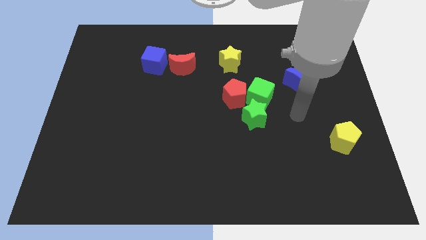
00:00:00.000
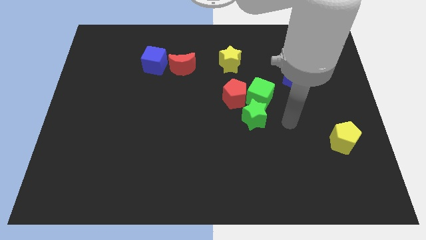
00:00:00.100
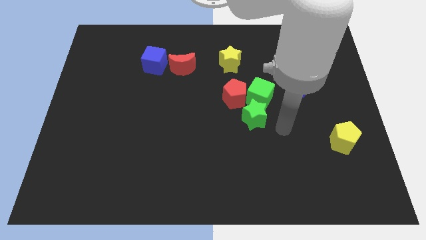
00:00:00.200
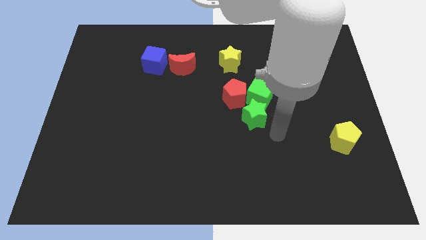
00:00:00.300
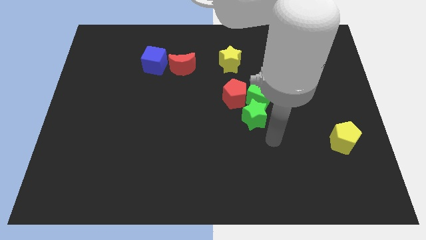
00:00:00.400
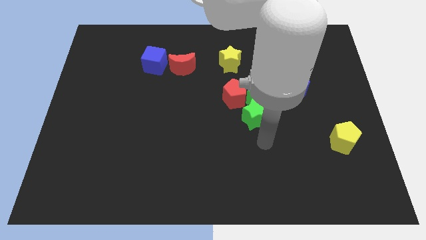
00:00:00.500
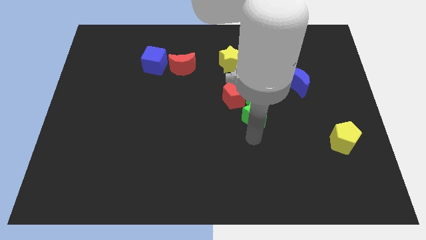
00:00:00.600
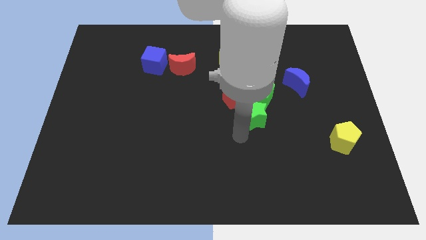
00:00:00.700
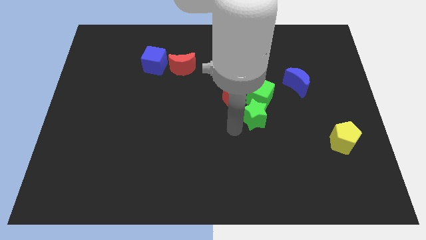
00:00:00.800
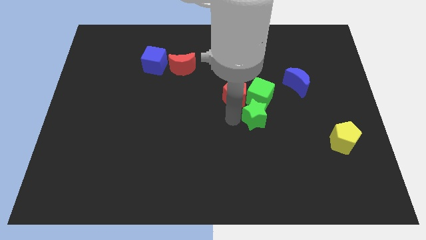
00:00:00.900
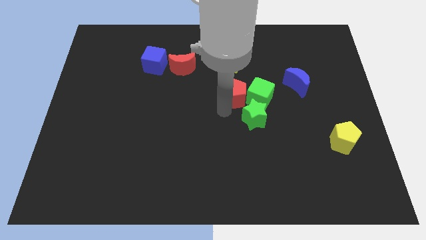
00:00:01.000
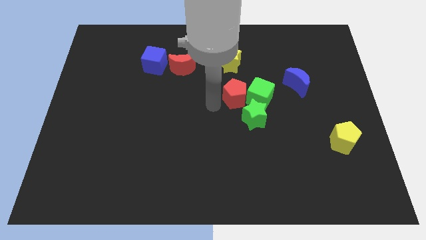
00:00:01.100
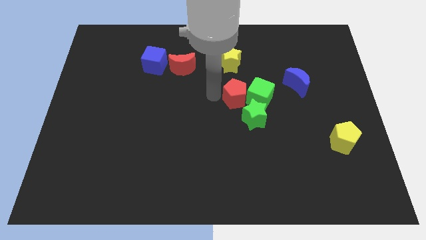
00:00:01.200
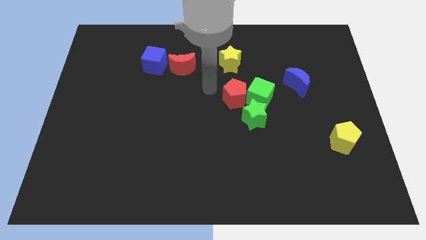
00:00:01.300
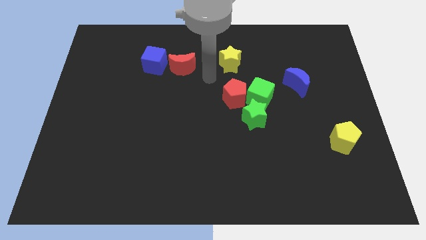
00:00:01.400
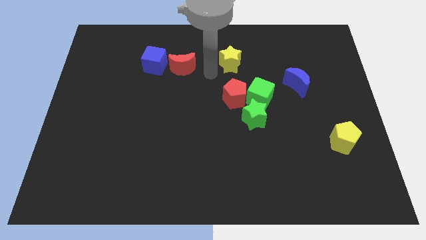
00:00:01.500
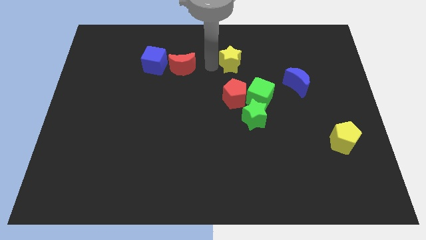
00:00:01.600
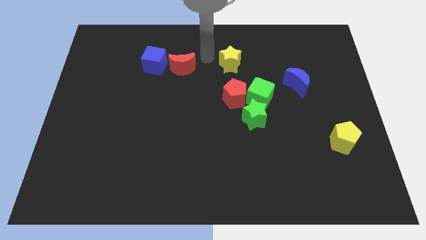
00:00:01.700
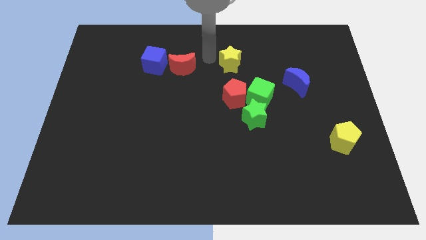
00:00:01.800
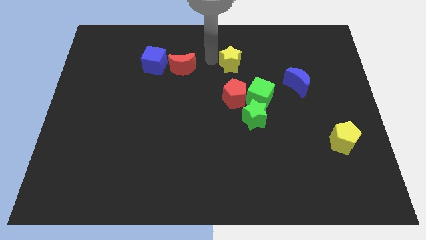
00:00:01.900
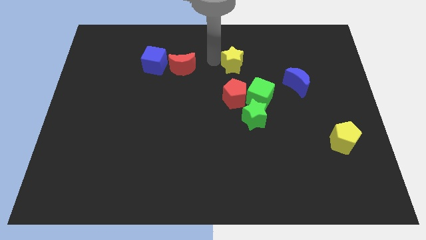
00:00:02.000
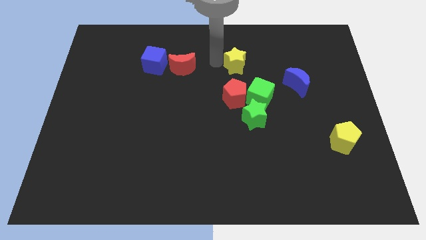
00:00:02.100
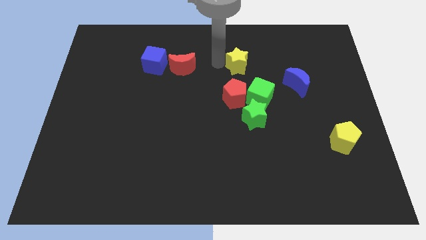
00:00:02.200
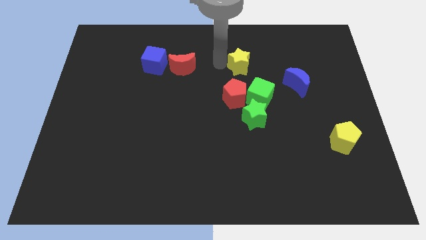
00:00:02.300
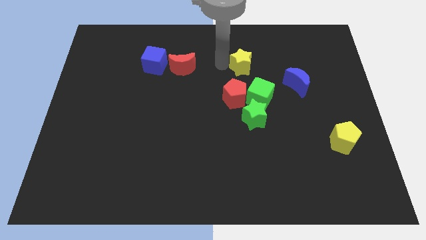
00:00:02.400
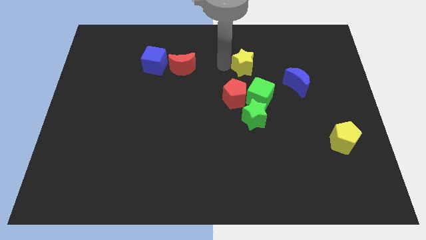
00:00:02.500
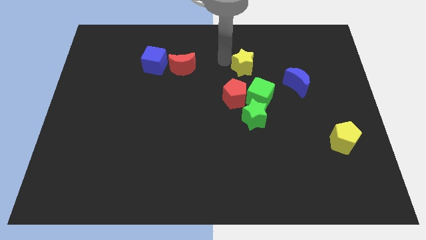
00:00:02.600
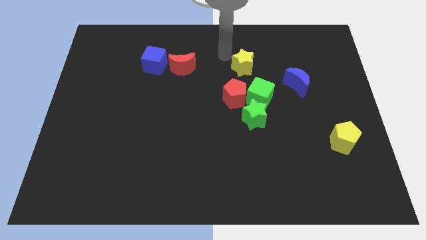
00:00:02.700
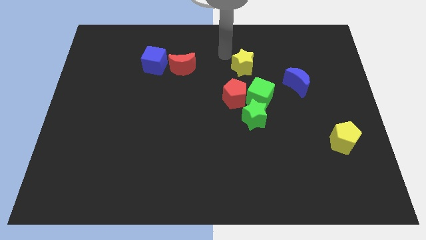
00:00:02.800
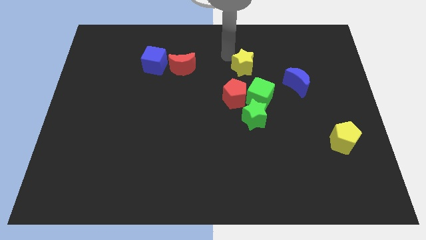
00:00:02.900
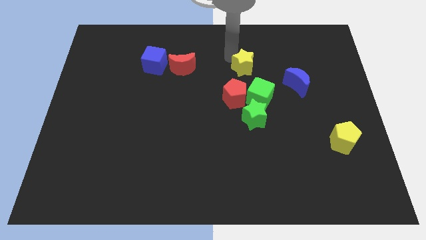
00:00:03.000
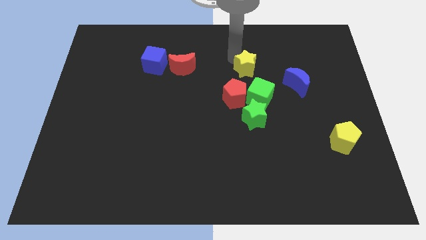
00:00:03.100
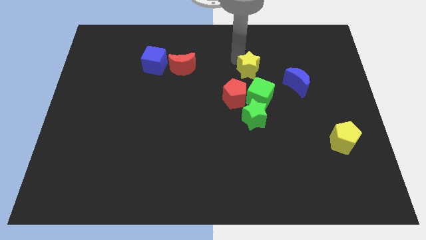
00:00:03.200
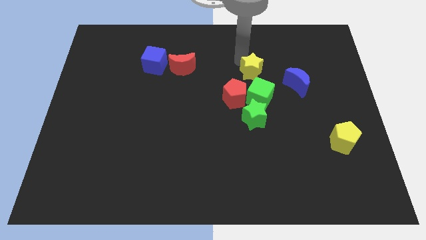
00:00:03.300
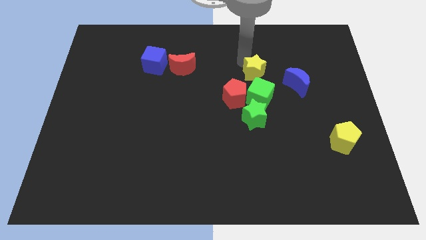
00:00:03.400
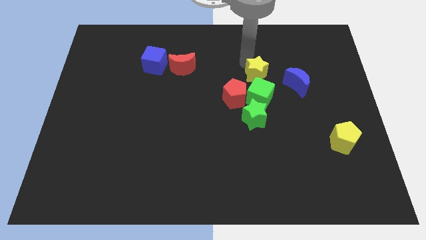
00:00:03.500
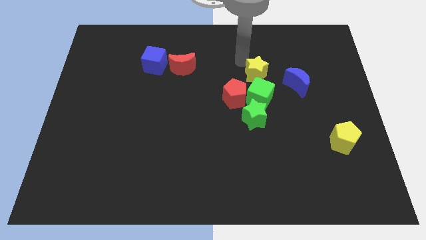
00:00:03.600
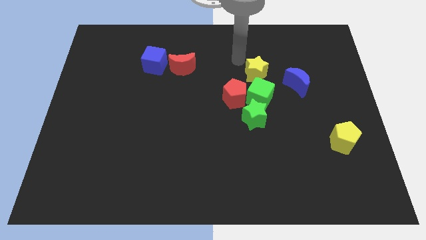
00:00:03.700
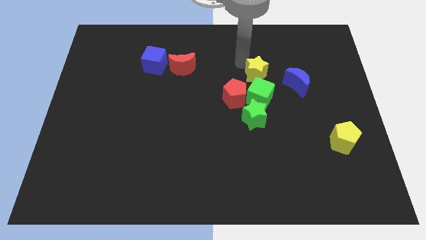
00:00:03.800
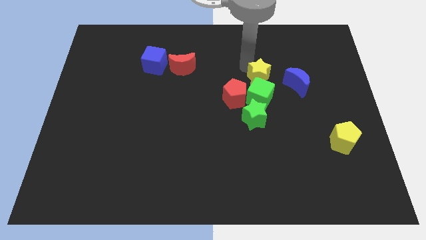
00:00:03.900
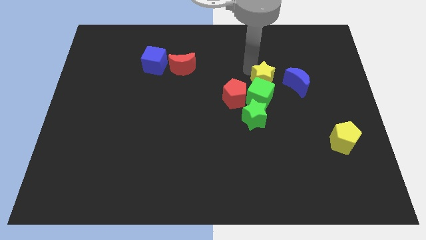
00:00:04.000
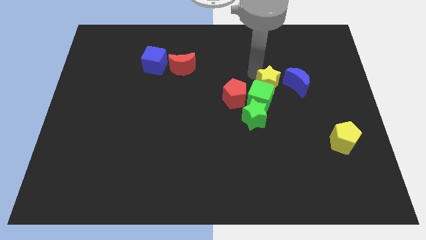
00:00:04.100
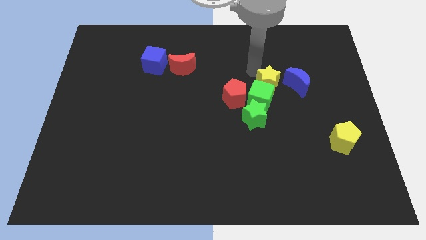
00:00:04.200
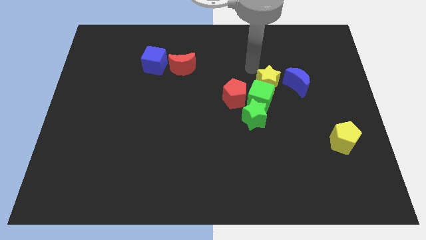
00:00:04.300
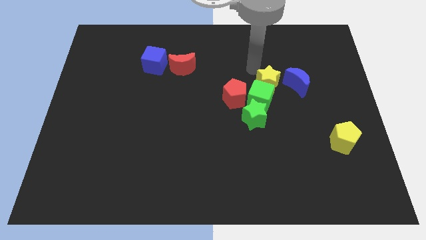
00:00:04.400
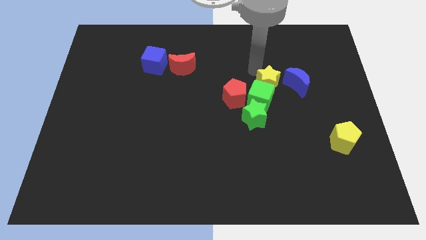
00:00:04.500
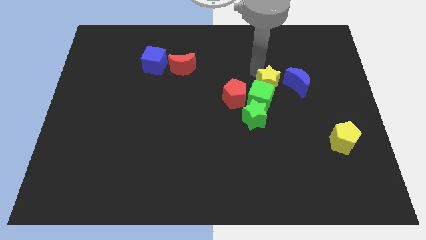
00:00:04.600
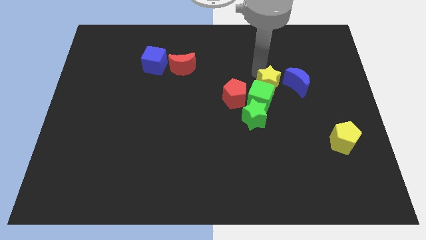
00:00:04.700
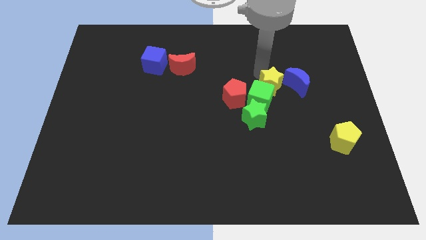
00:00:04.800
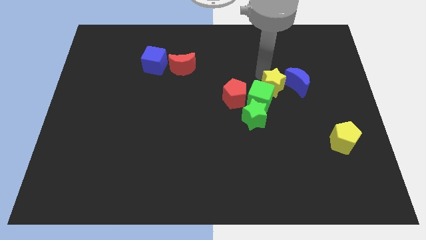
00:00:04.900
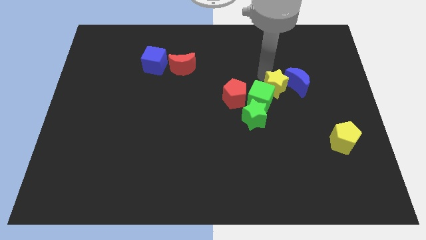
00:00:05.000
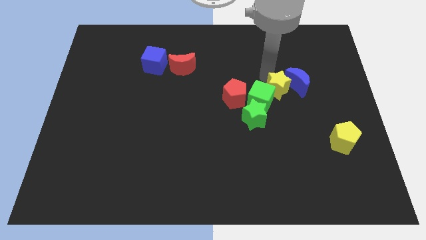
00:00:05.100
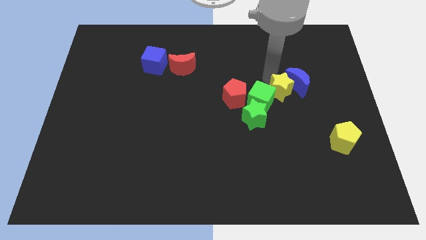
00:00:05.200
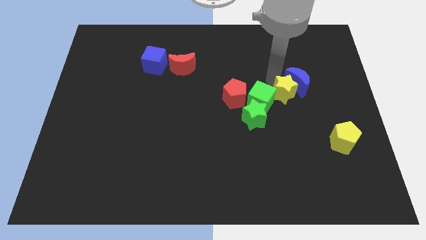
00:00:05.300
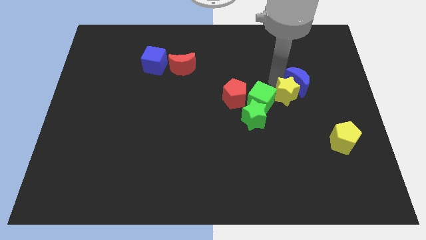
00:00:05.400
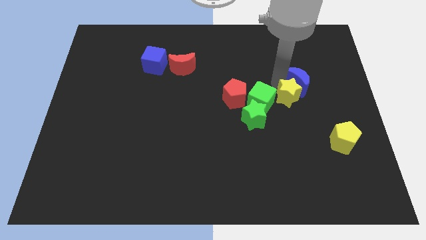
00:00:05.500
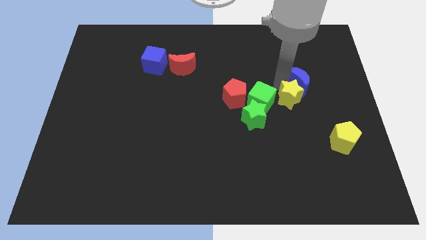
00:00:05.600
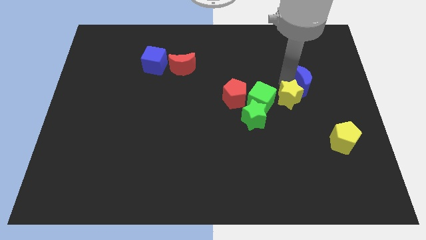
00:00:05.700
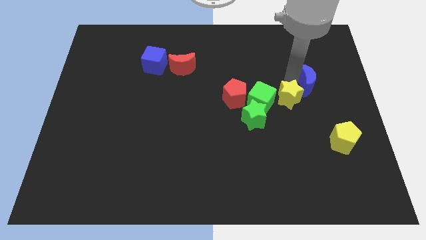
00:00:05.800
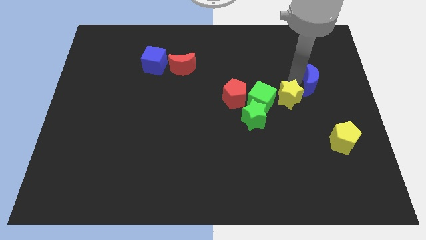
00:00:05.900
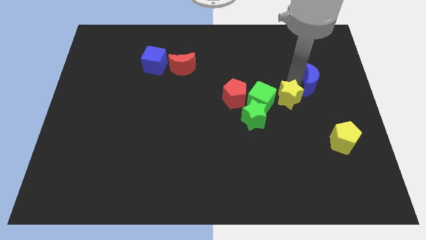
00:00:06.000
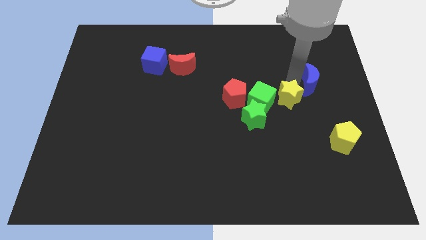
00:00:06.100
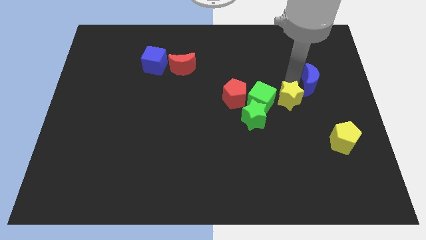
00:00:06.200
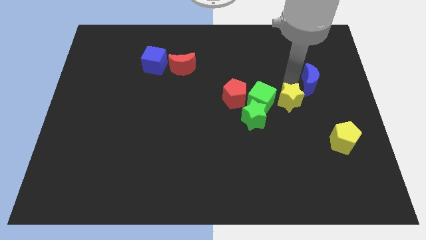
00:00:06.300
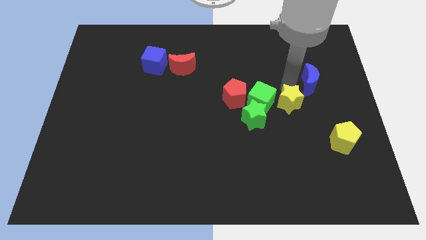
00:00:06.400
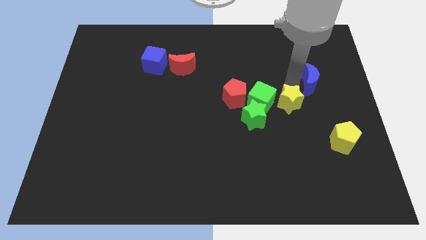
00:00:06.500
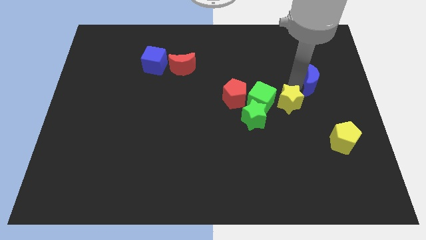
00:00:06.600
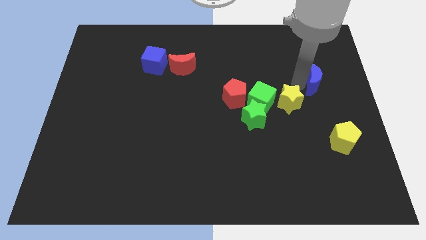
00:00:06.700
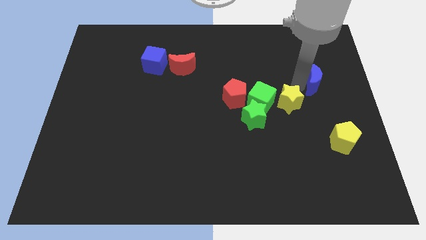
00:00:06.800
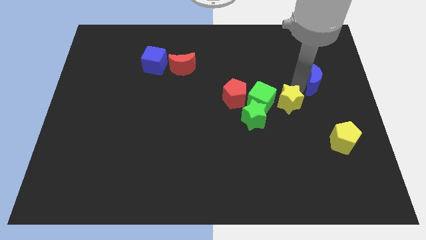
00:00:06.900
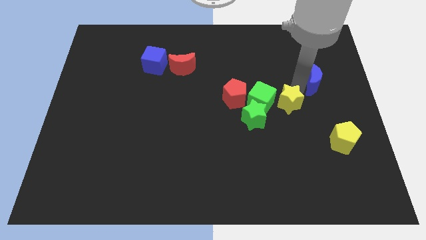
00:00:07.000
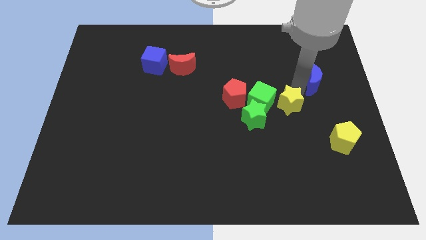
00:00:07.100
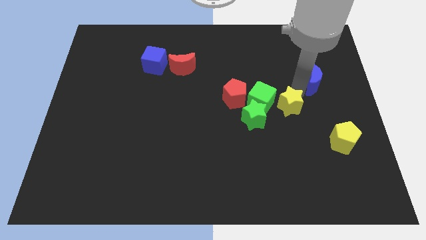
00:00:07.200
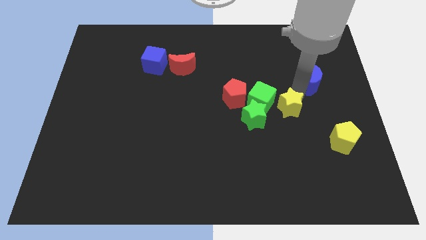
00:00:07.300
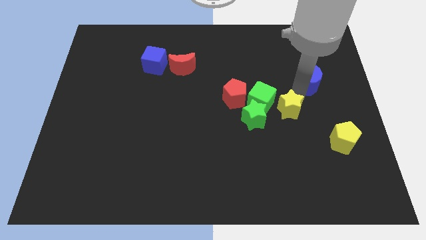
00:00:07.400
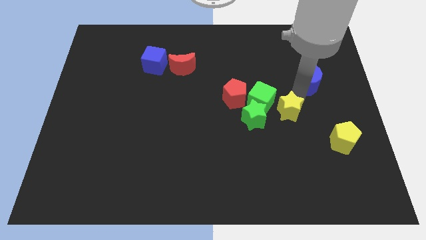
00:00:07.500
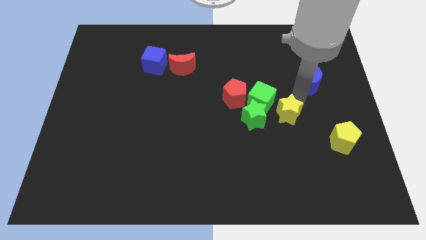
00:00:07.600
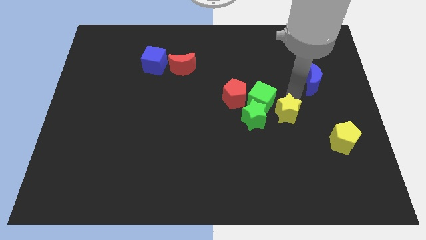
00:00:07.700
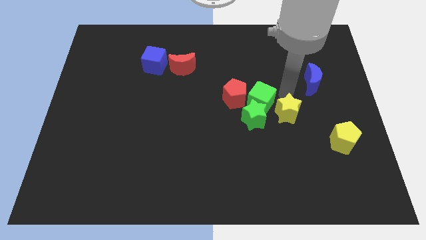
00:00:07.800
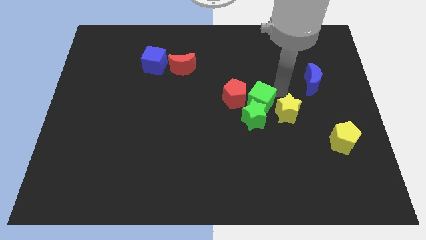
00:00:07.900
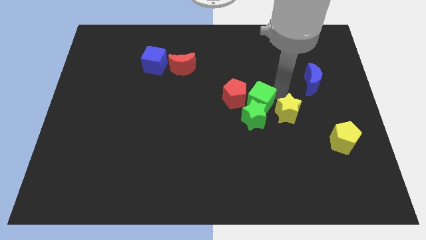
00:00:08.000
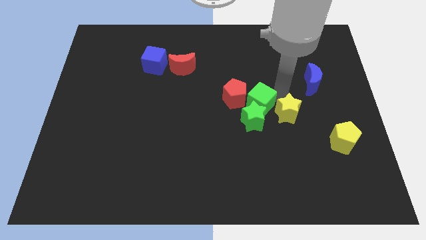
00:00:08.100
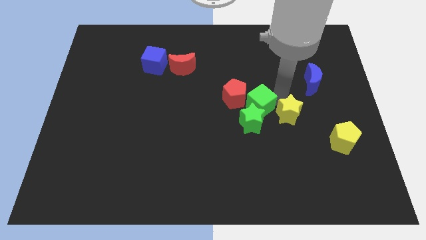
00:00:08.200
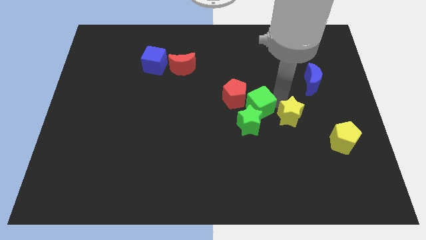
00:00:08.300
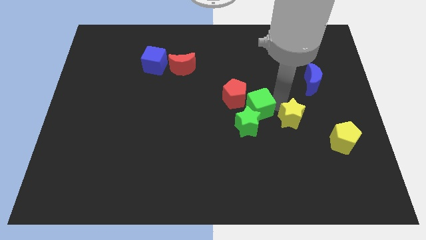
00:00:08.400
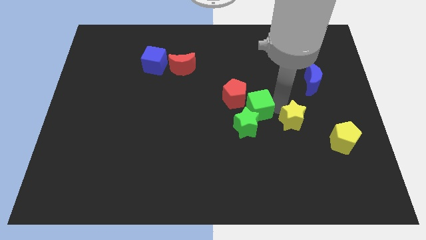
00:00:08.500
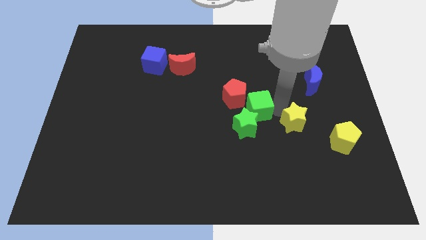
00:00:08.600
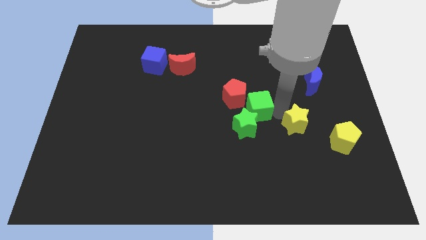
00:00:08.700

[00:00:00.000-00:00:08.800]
move the yellow star to the left of the yellow pentagon
